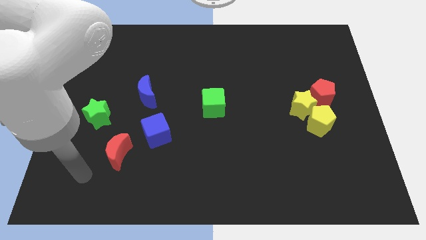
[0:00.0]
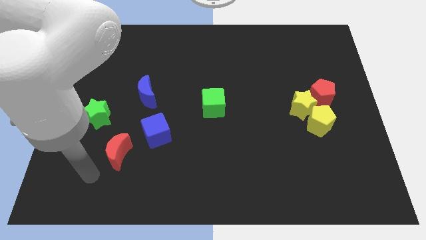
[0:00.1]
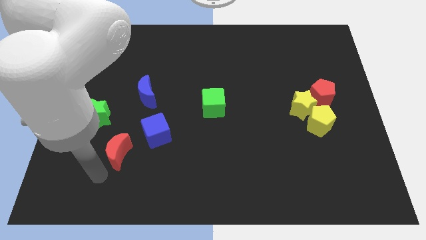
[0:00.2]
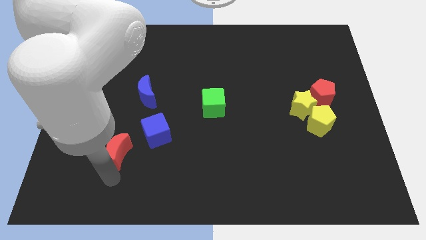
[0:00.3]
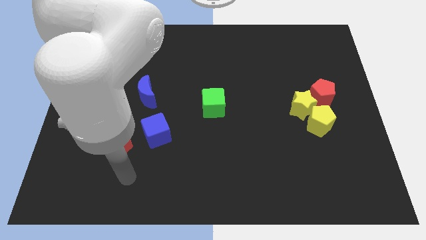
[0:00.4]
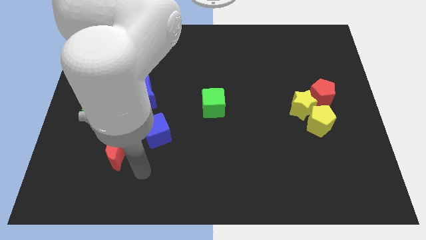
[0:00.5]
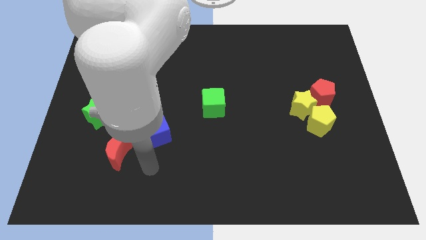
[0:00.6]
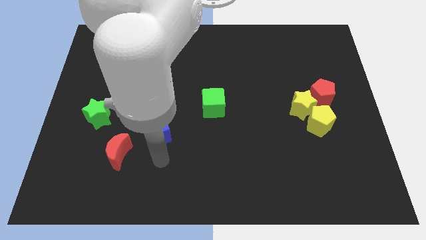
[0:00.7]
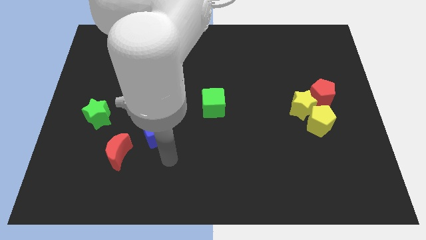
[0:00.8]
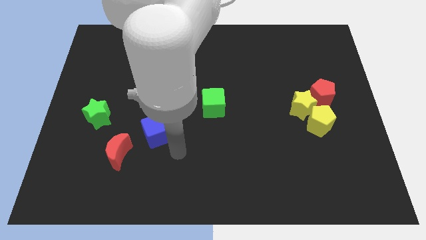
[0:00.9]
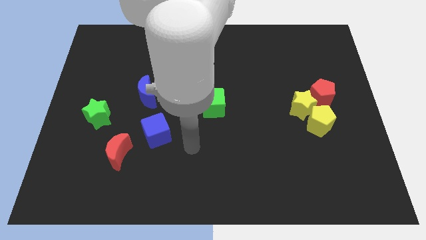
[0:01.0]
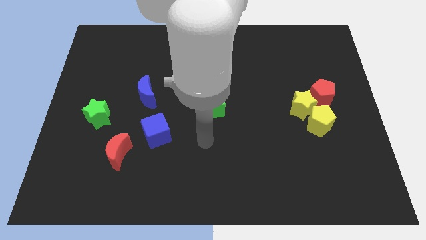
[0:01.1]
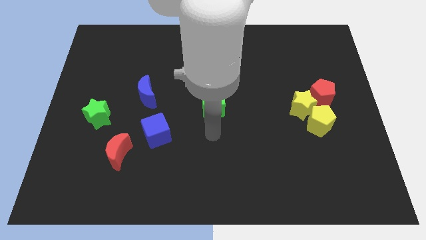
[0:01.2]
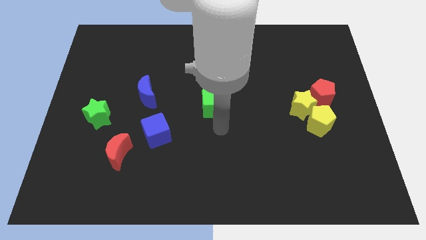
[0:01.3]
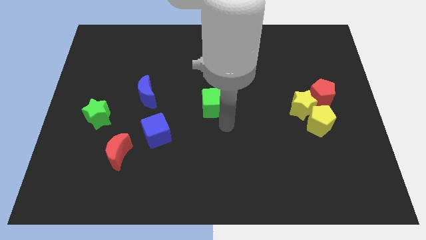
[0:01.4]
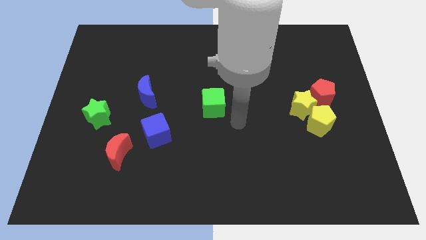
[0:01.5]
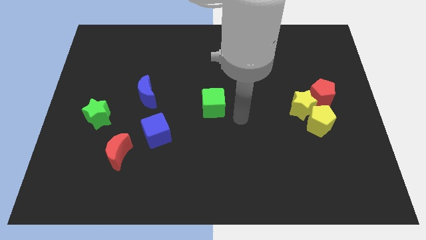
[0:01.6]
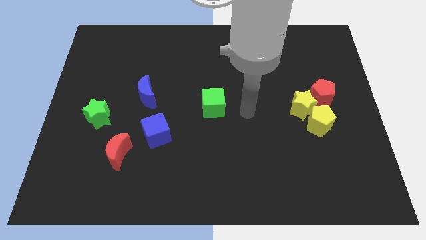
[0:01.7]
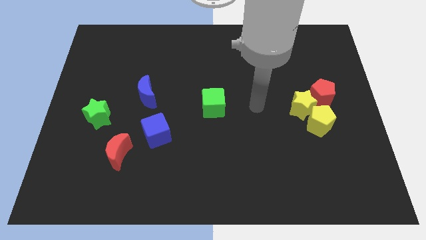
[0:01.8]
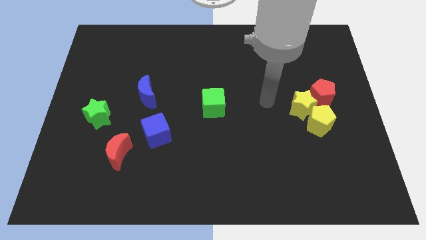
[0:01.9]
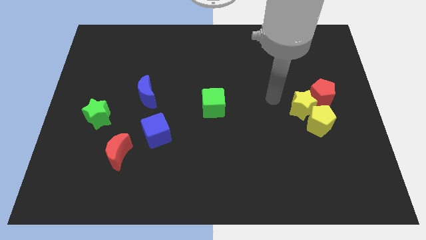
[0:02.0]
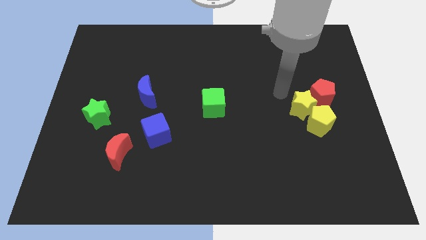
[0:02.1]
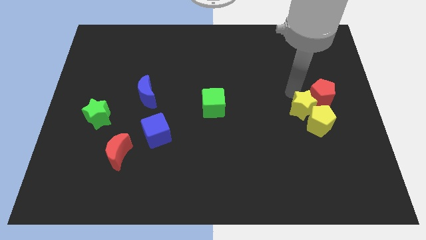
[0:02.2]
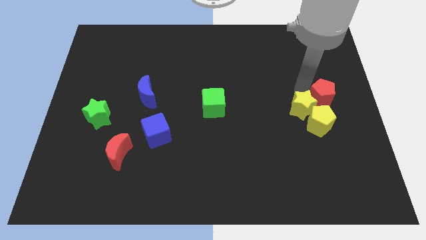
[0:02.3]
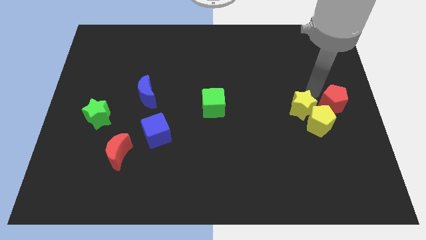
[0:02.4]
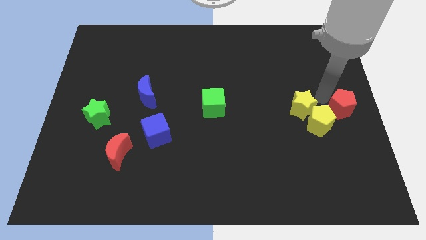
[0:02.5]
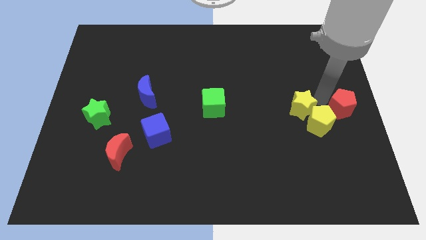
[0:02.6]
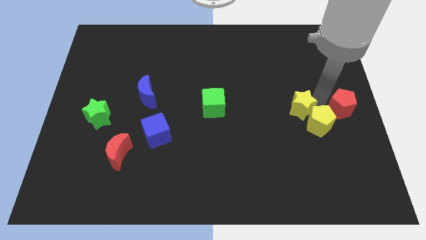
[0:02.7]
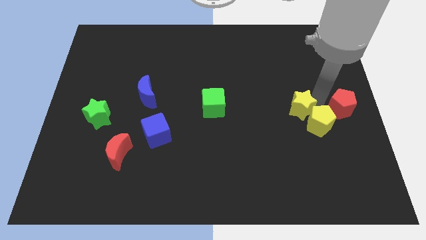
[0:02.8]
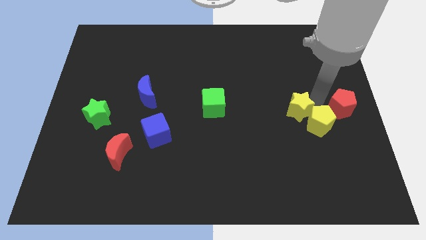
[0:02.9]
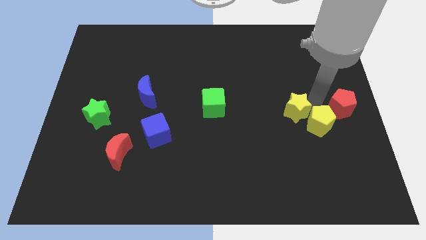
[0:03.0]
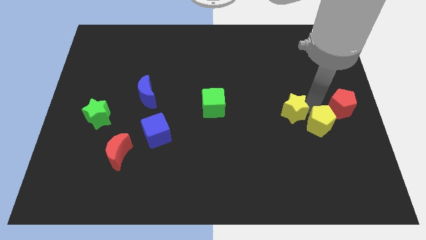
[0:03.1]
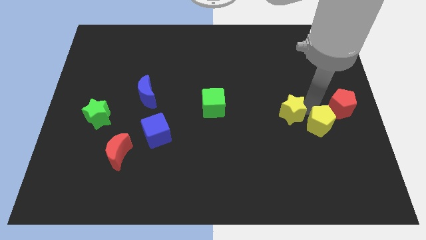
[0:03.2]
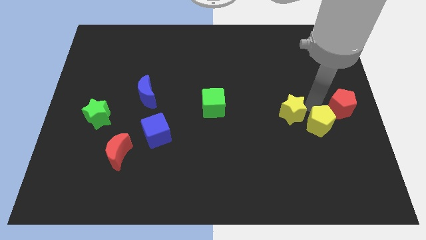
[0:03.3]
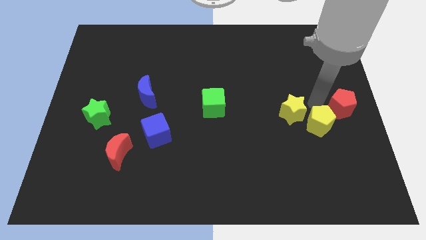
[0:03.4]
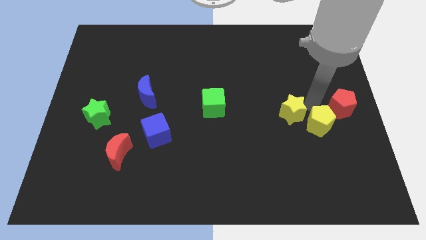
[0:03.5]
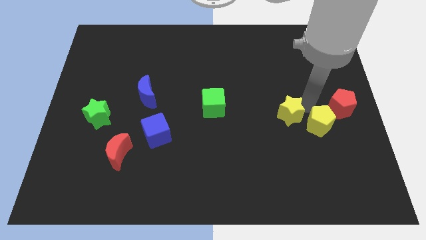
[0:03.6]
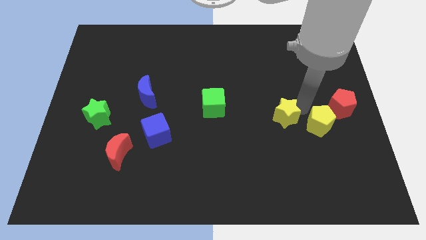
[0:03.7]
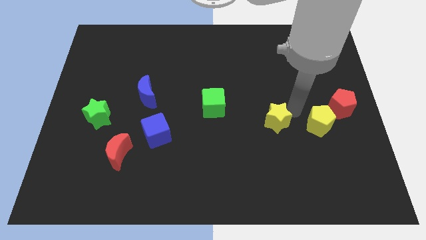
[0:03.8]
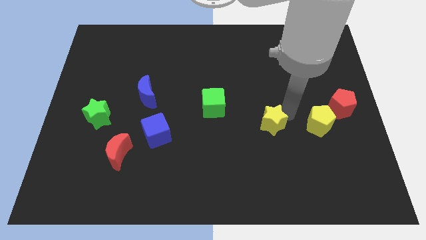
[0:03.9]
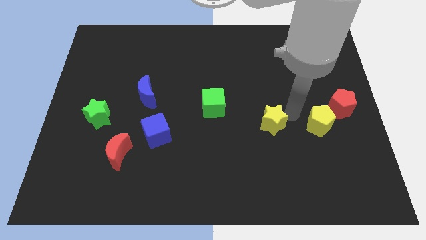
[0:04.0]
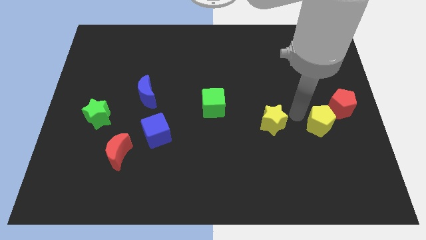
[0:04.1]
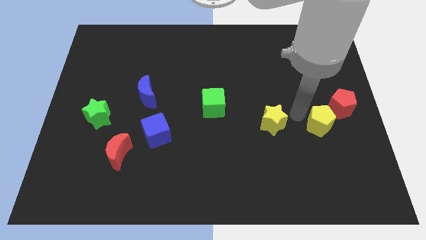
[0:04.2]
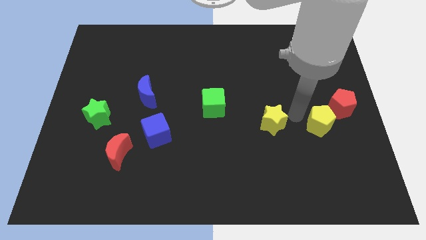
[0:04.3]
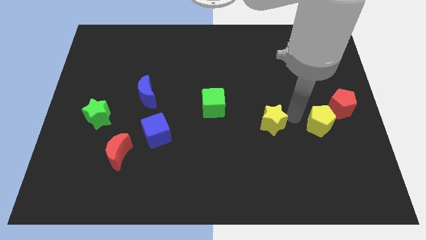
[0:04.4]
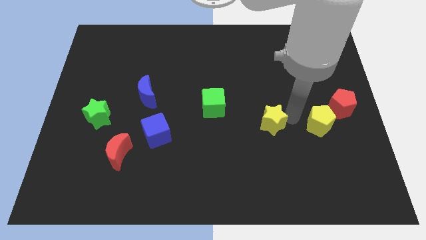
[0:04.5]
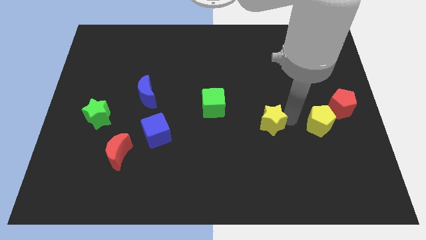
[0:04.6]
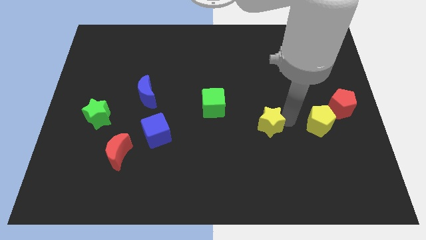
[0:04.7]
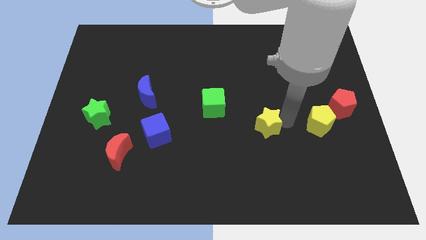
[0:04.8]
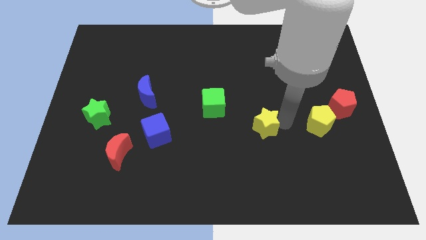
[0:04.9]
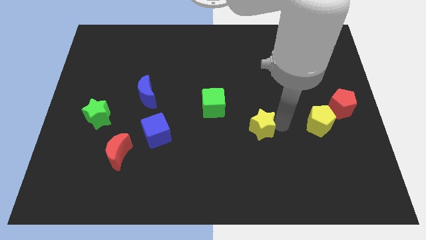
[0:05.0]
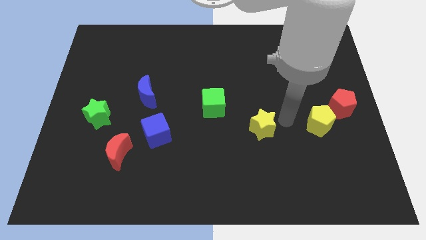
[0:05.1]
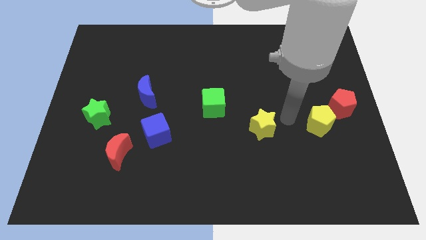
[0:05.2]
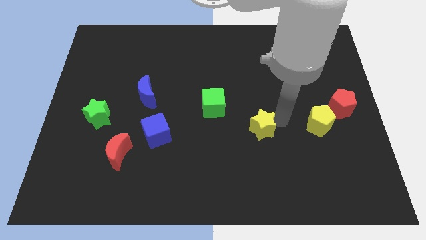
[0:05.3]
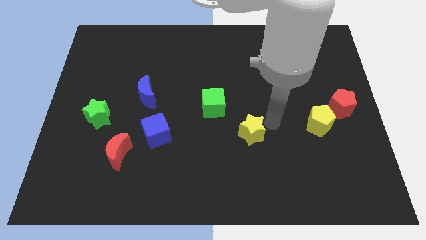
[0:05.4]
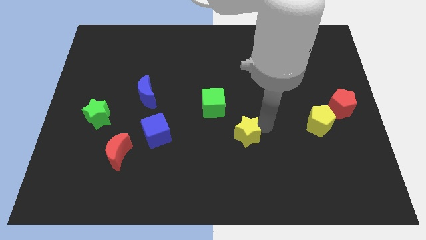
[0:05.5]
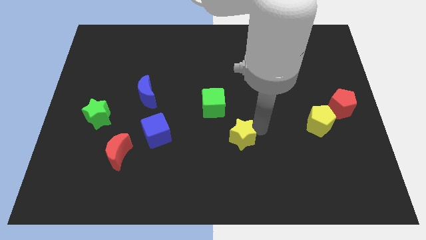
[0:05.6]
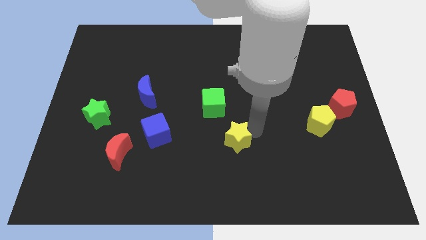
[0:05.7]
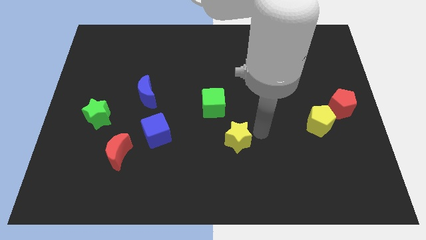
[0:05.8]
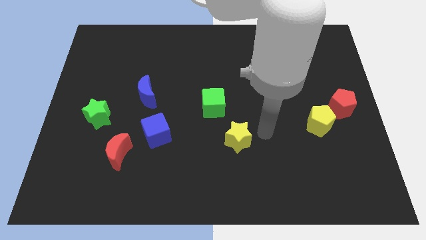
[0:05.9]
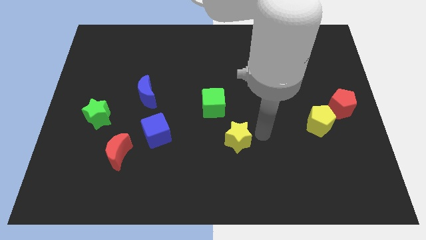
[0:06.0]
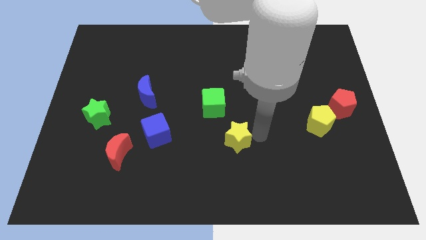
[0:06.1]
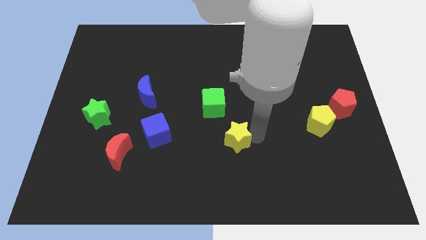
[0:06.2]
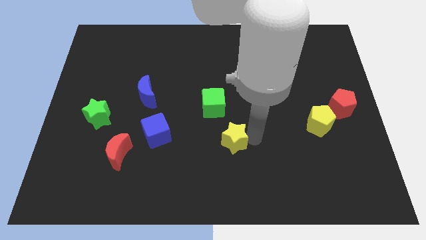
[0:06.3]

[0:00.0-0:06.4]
push the yellow star below the green cube
